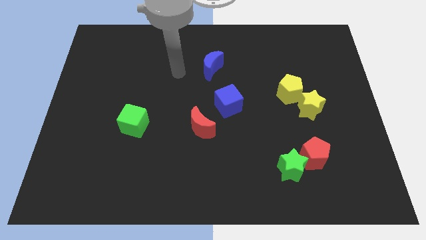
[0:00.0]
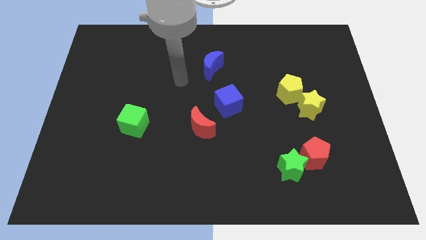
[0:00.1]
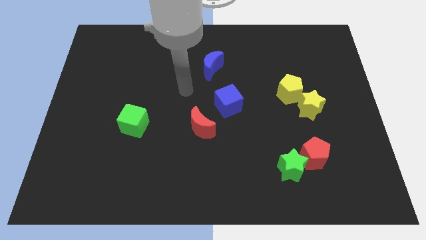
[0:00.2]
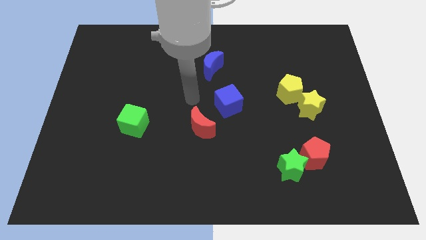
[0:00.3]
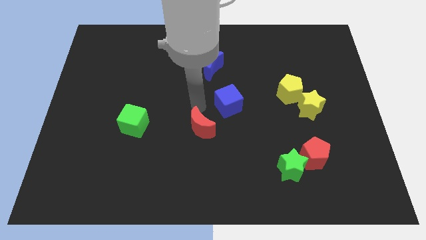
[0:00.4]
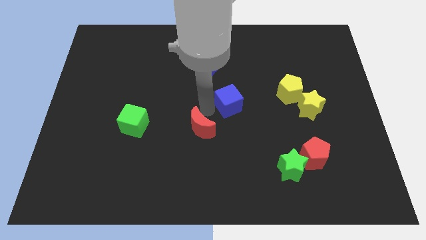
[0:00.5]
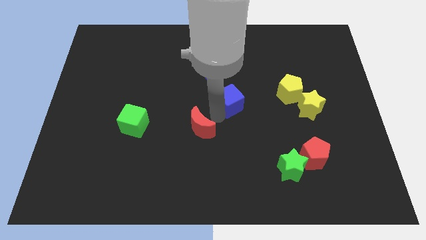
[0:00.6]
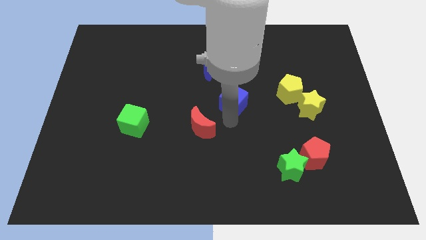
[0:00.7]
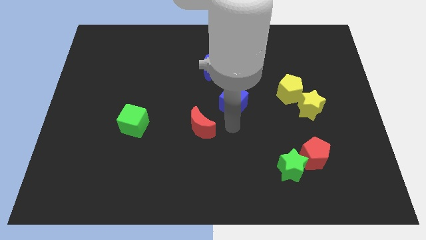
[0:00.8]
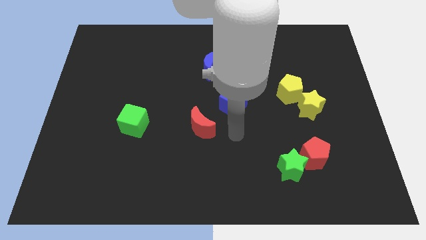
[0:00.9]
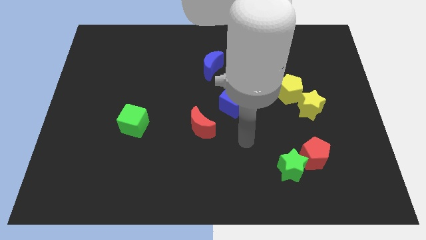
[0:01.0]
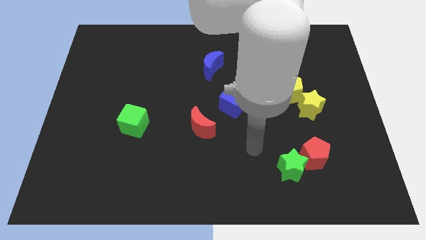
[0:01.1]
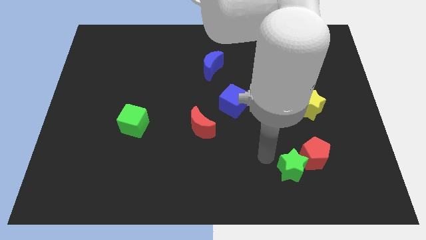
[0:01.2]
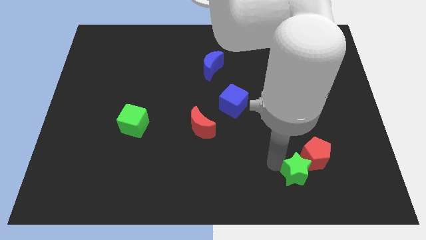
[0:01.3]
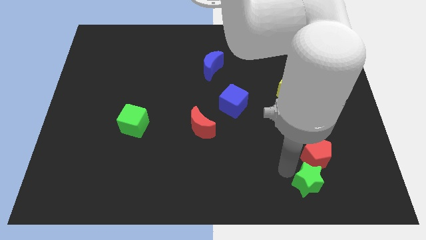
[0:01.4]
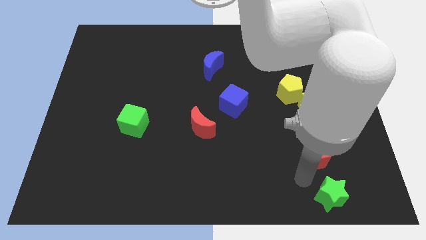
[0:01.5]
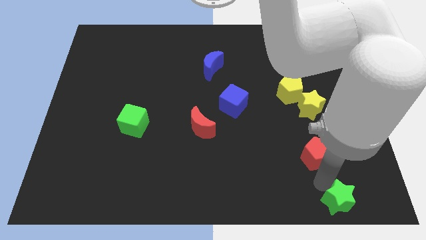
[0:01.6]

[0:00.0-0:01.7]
pull the red pentagon apart from the green star

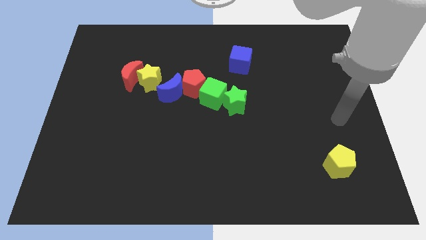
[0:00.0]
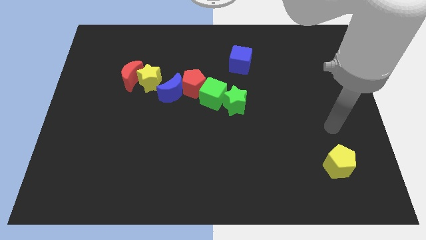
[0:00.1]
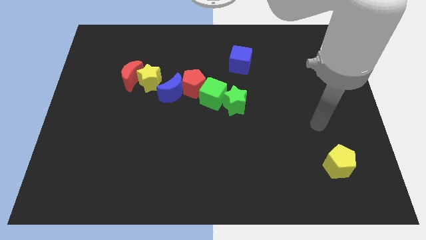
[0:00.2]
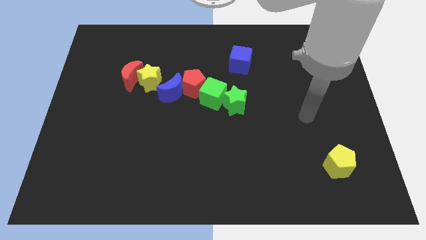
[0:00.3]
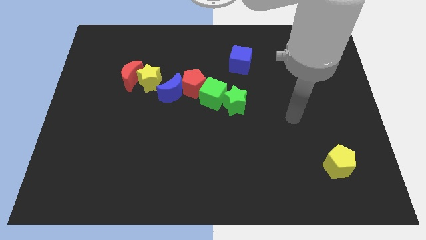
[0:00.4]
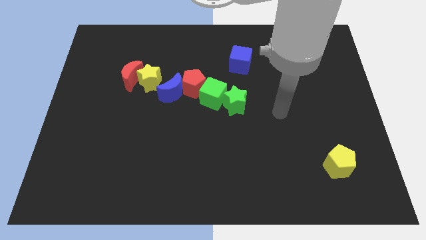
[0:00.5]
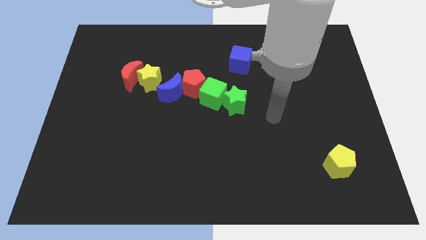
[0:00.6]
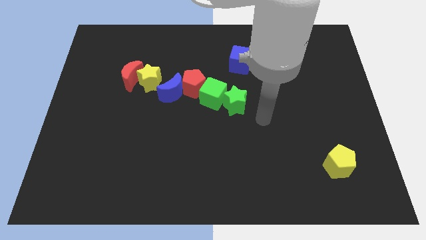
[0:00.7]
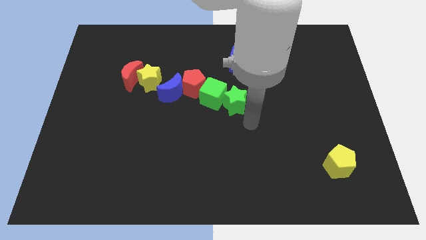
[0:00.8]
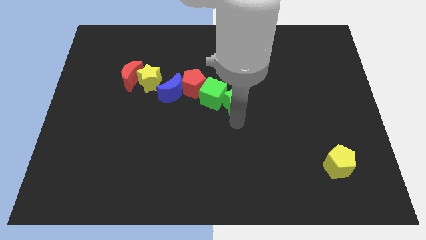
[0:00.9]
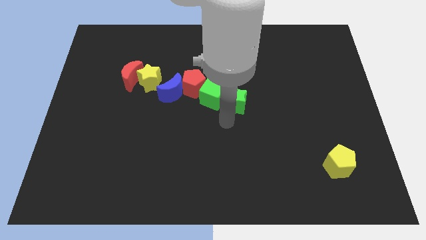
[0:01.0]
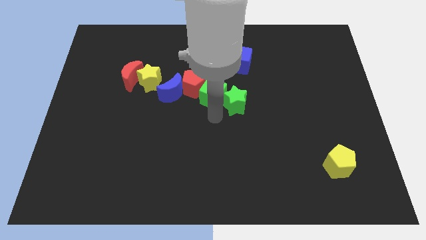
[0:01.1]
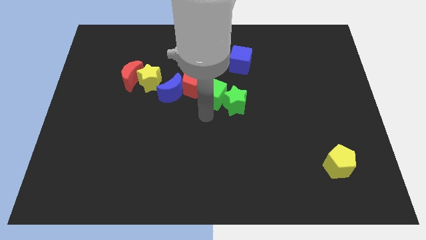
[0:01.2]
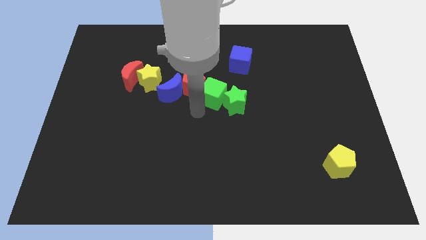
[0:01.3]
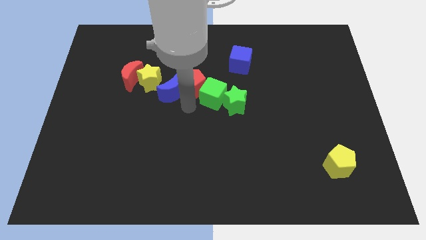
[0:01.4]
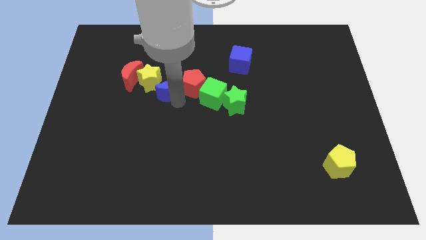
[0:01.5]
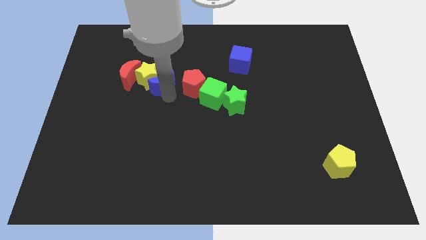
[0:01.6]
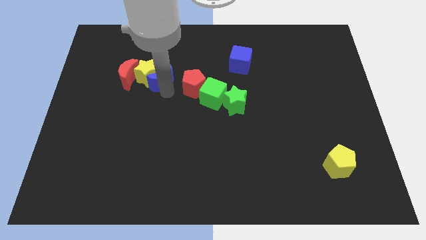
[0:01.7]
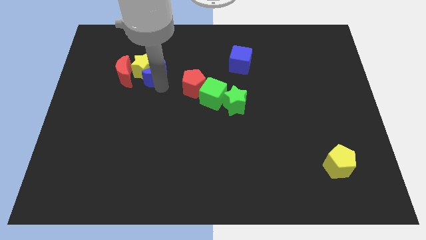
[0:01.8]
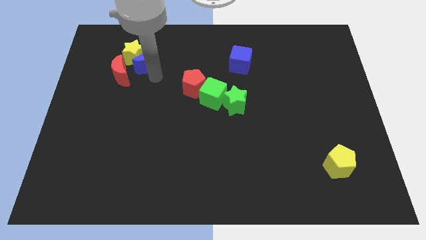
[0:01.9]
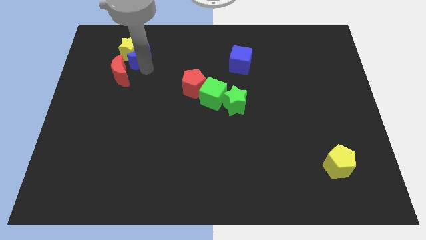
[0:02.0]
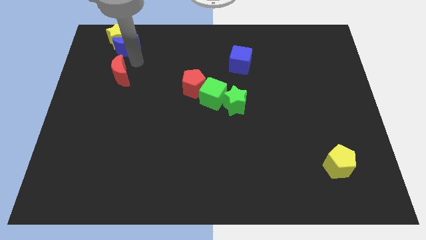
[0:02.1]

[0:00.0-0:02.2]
separate the red moon from the yellow star

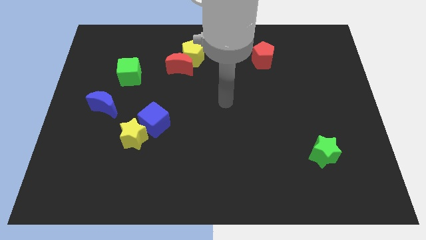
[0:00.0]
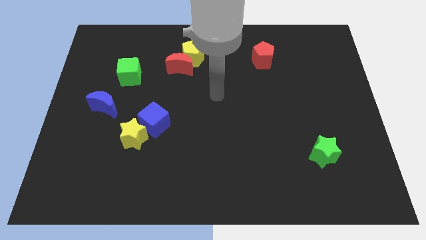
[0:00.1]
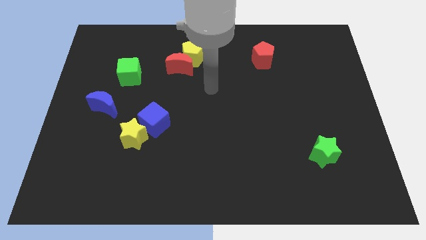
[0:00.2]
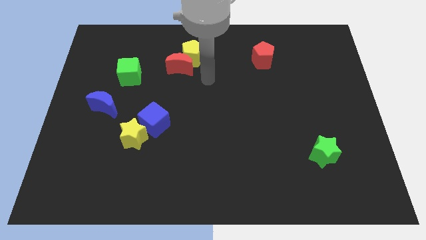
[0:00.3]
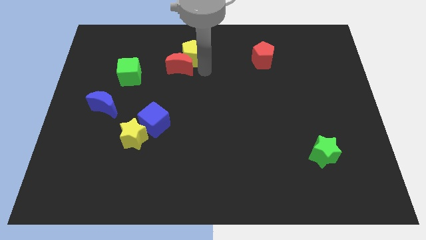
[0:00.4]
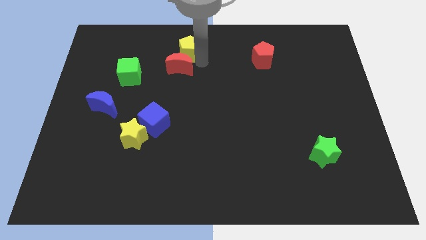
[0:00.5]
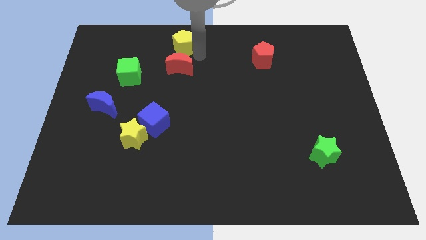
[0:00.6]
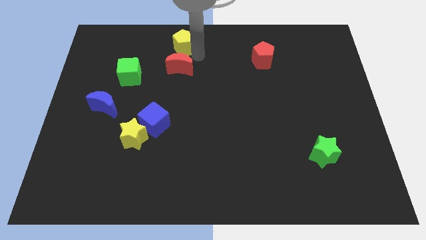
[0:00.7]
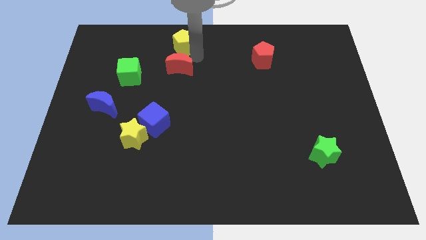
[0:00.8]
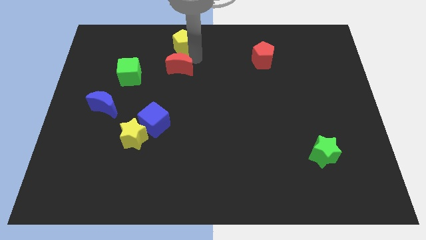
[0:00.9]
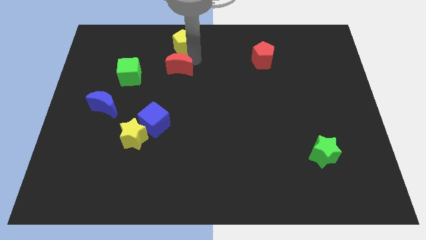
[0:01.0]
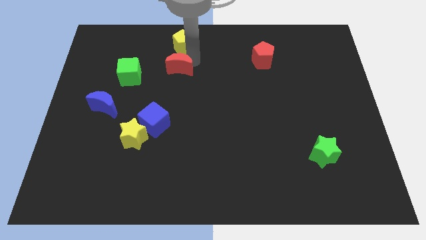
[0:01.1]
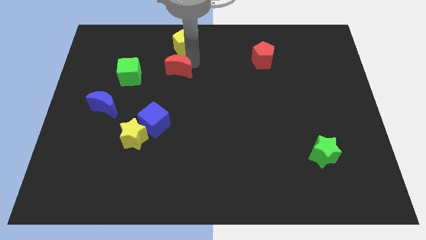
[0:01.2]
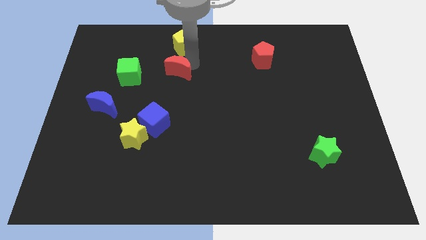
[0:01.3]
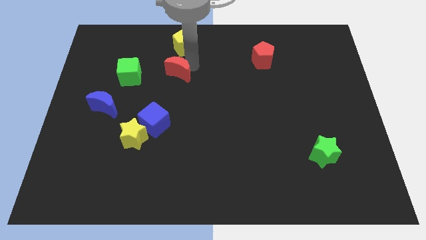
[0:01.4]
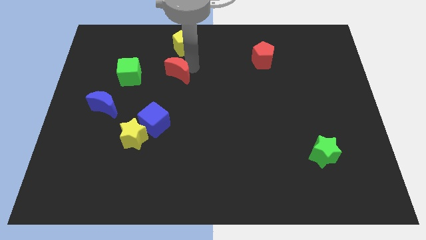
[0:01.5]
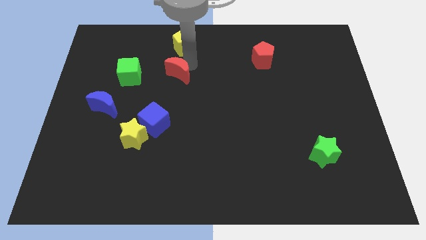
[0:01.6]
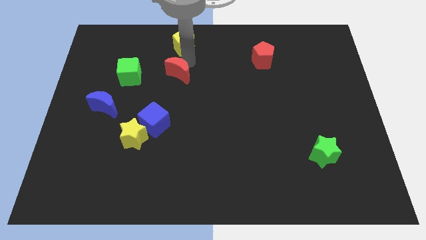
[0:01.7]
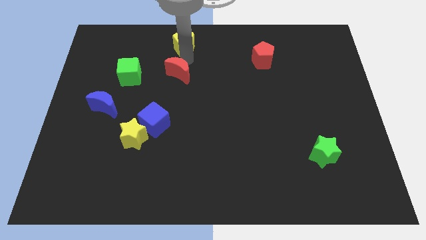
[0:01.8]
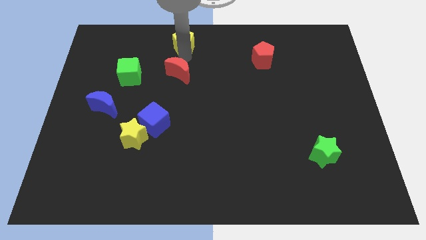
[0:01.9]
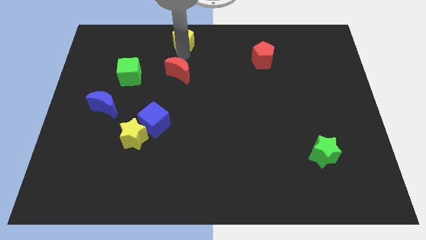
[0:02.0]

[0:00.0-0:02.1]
separate the red moon from the yellow pentagon

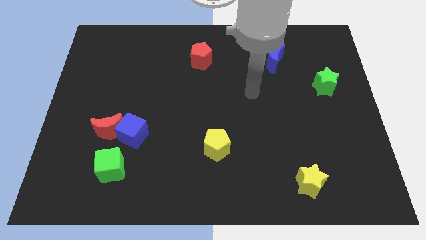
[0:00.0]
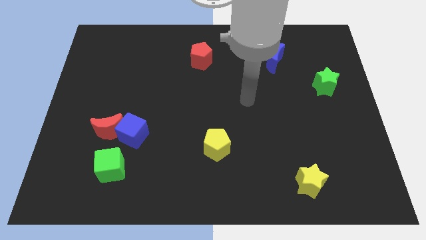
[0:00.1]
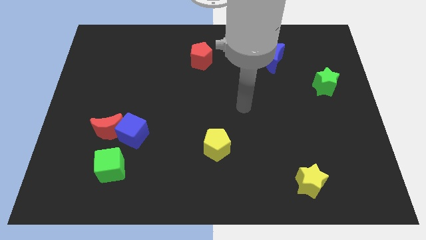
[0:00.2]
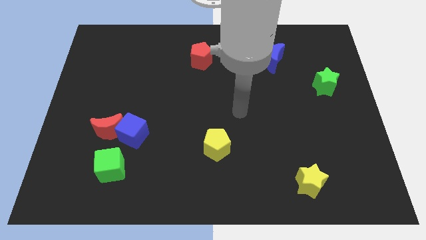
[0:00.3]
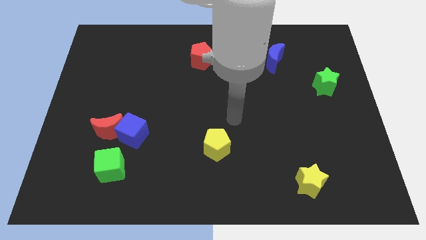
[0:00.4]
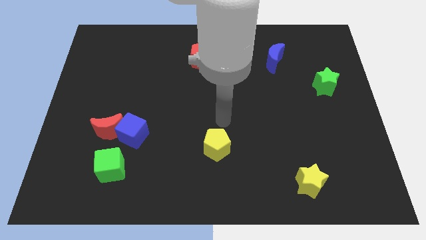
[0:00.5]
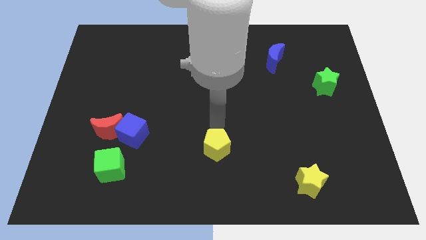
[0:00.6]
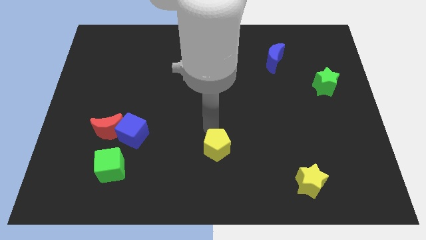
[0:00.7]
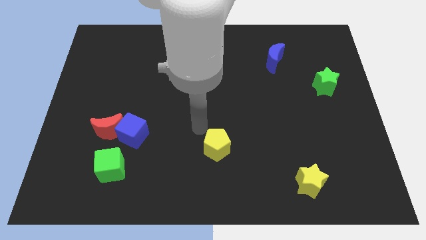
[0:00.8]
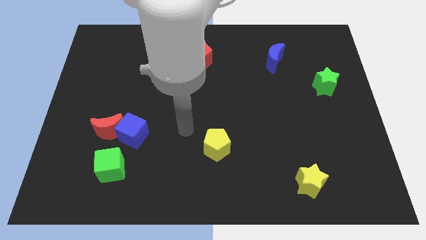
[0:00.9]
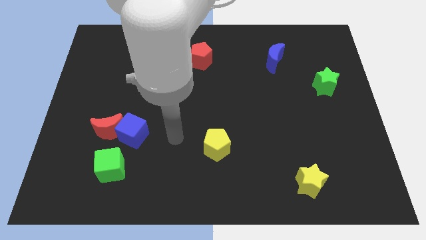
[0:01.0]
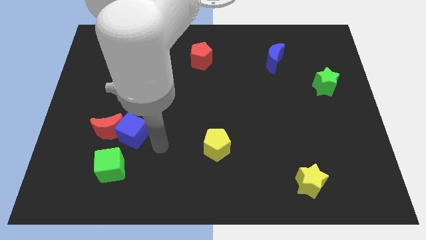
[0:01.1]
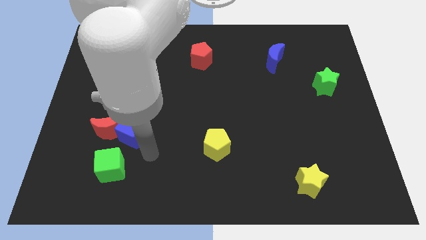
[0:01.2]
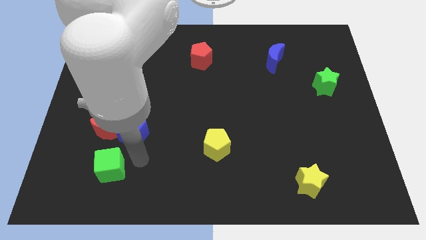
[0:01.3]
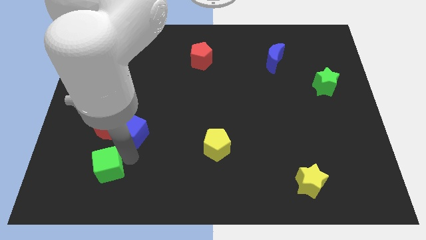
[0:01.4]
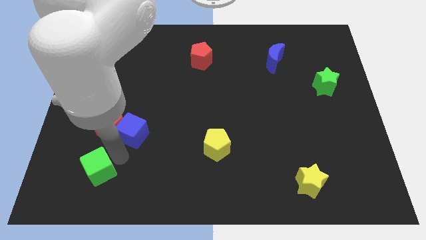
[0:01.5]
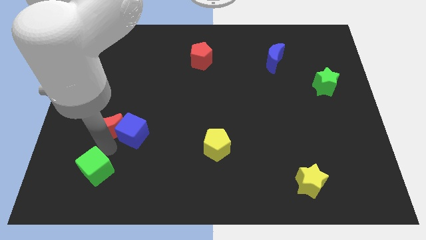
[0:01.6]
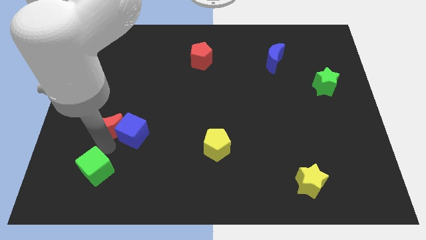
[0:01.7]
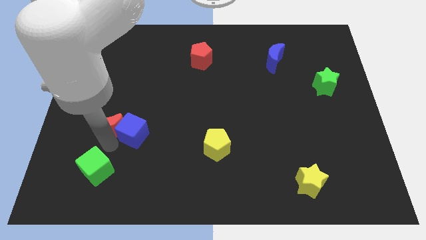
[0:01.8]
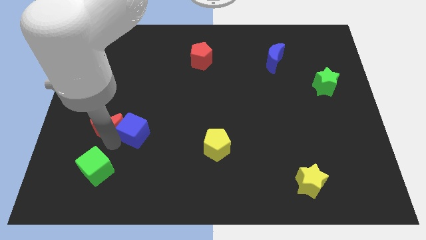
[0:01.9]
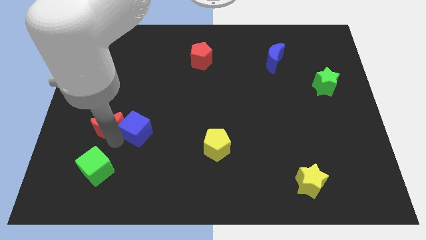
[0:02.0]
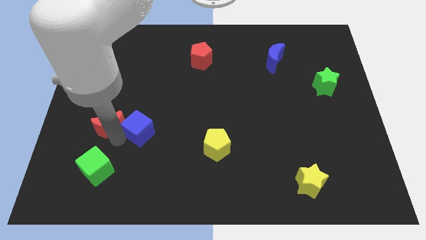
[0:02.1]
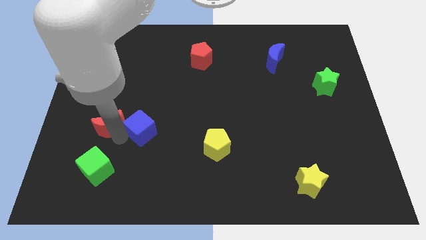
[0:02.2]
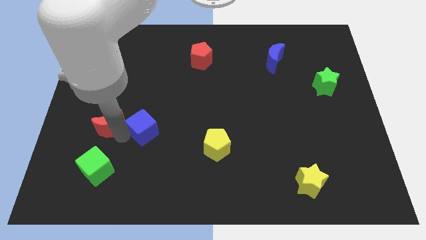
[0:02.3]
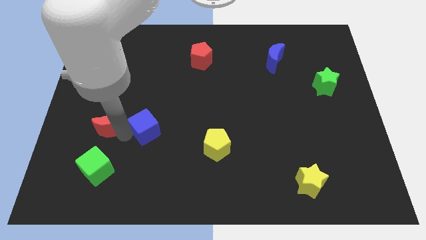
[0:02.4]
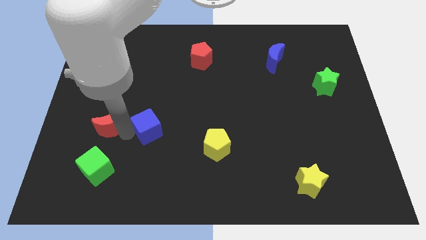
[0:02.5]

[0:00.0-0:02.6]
pull the blue cube apart from the red moon and green cube

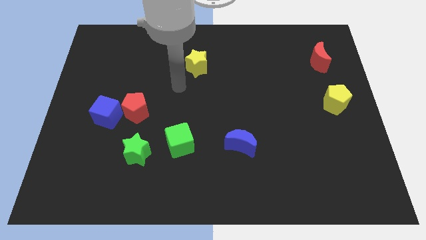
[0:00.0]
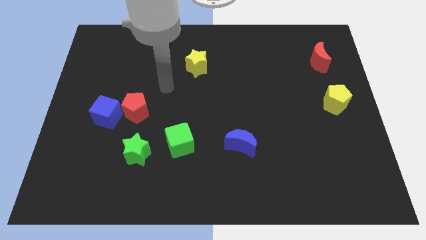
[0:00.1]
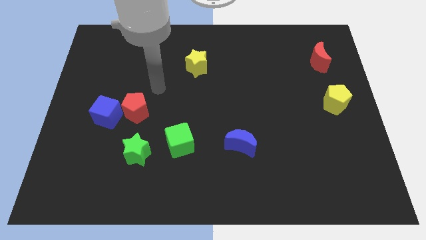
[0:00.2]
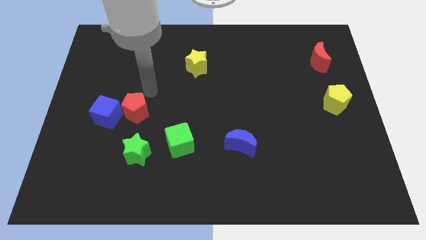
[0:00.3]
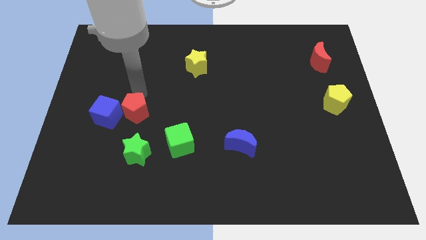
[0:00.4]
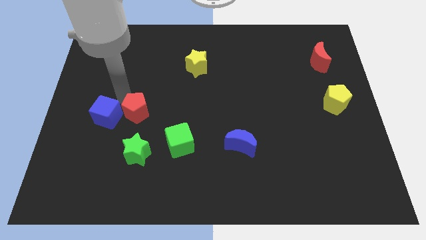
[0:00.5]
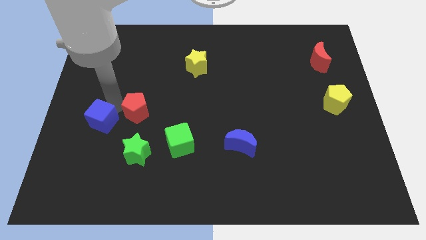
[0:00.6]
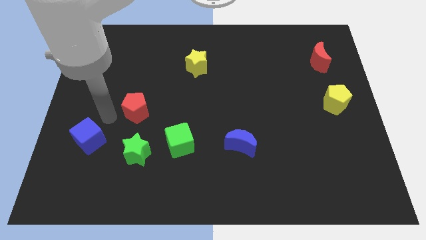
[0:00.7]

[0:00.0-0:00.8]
separate the red pentagon from the blue cube
